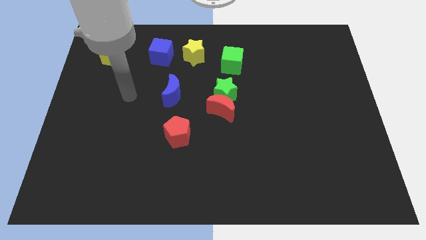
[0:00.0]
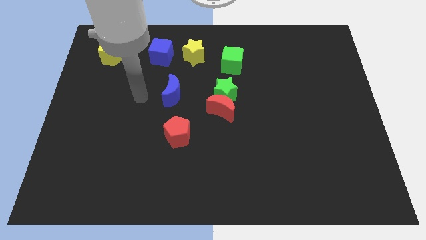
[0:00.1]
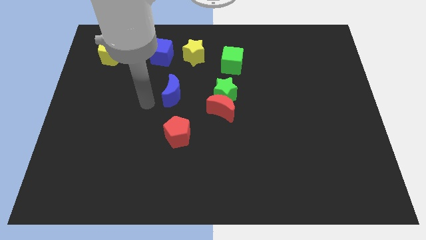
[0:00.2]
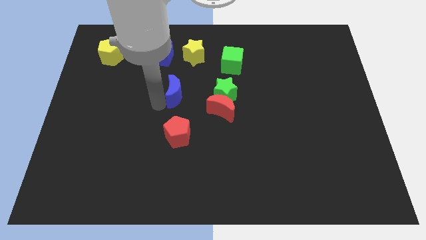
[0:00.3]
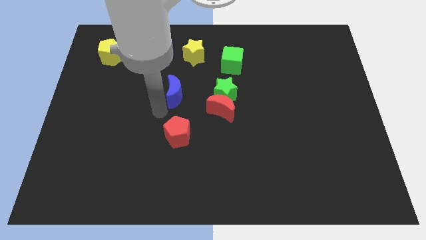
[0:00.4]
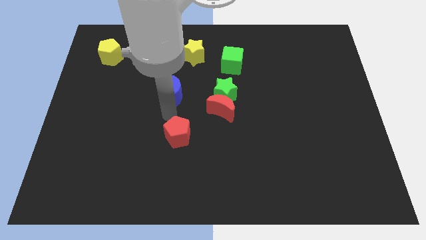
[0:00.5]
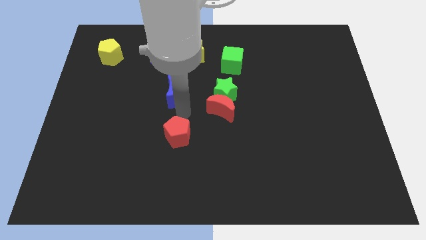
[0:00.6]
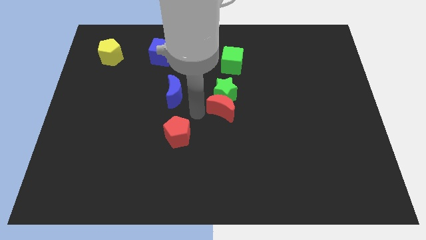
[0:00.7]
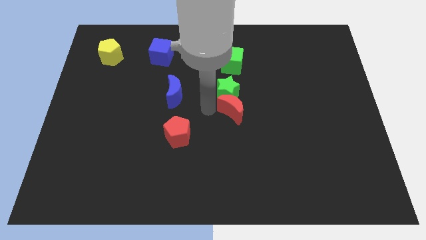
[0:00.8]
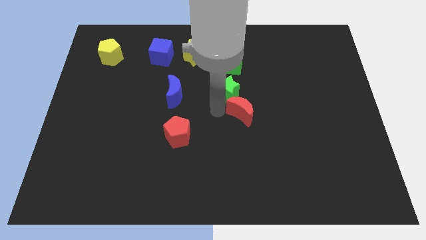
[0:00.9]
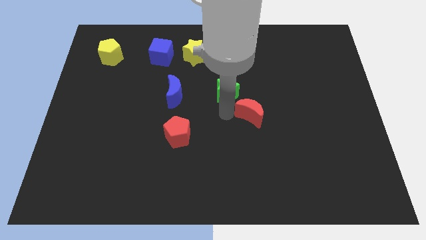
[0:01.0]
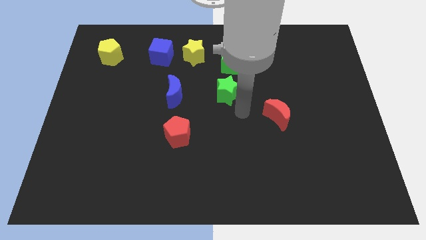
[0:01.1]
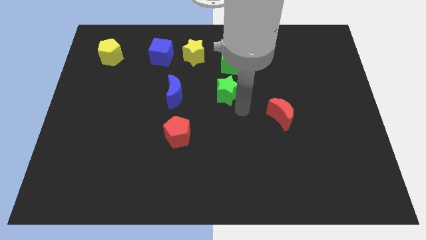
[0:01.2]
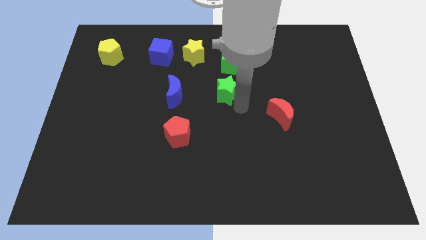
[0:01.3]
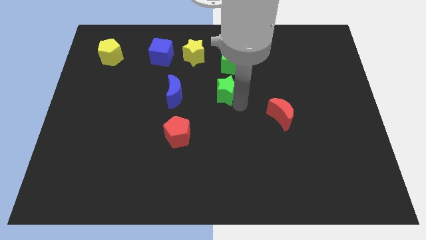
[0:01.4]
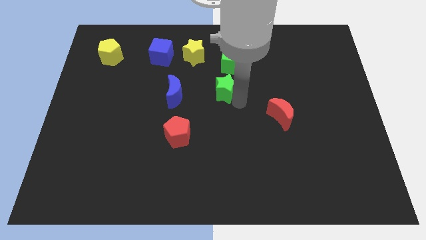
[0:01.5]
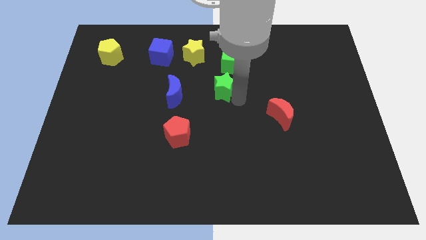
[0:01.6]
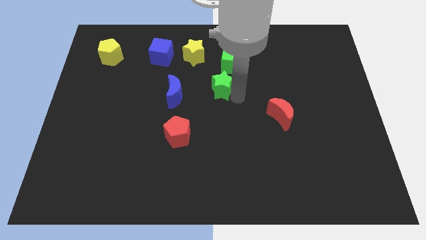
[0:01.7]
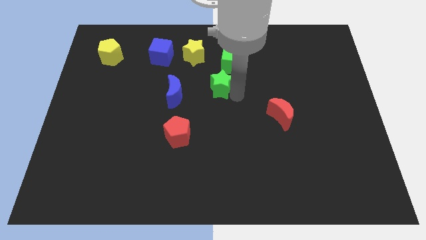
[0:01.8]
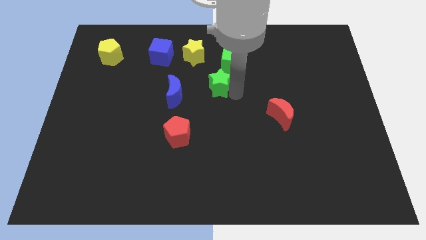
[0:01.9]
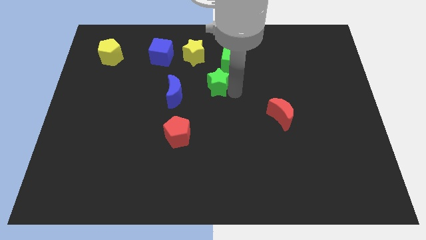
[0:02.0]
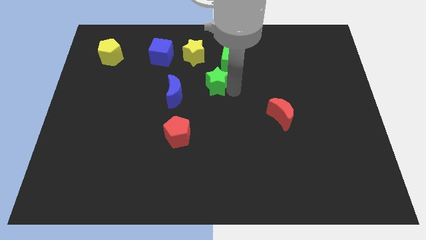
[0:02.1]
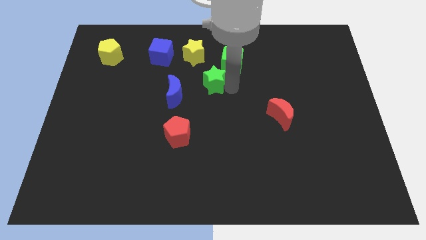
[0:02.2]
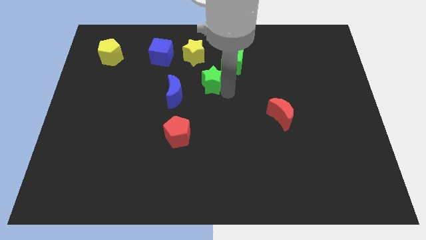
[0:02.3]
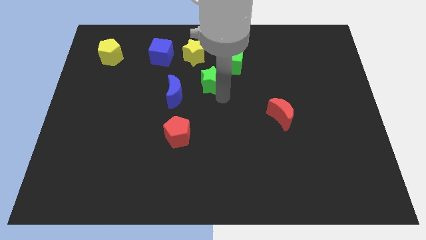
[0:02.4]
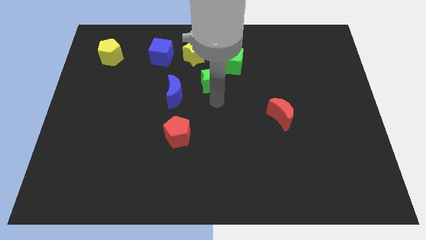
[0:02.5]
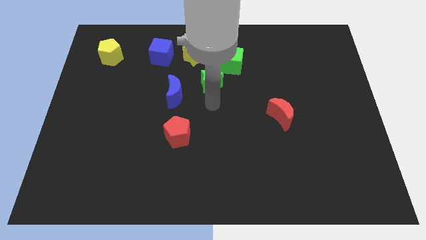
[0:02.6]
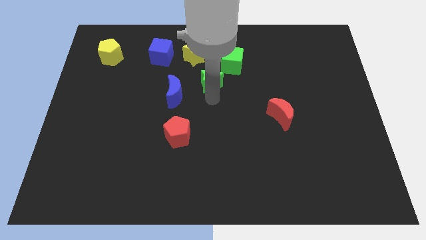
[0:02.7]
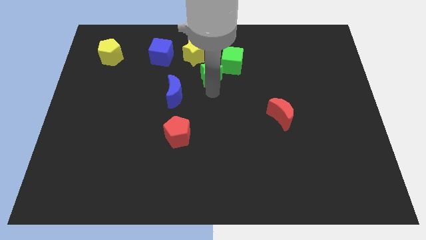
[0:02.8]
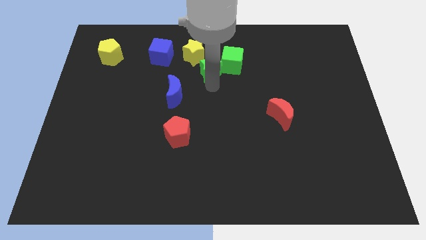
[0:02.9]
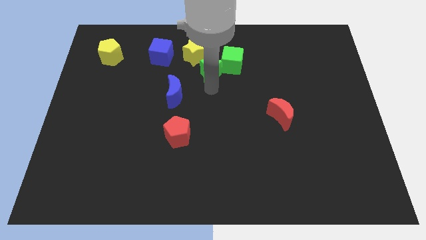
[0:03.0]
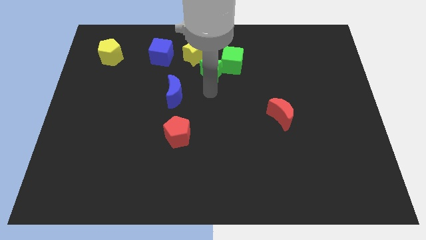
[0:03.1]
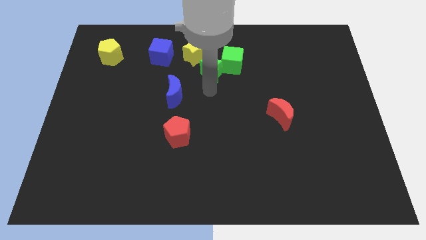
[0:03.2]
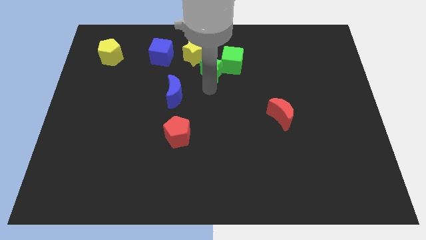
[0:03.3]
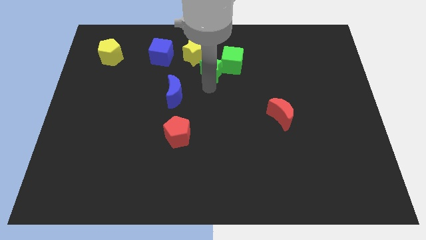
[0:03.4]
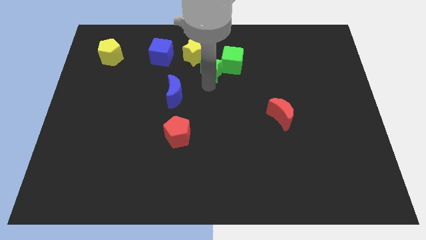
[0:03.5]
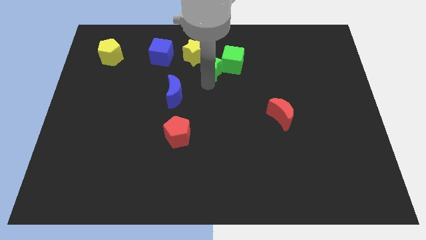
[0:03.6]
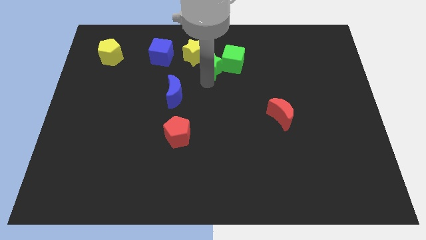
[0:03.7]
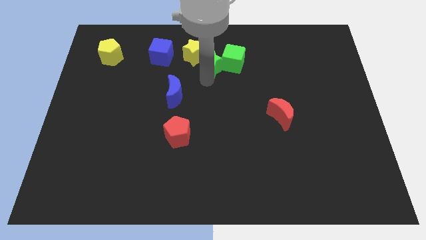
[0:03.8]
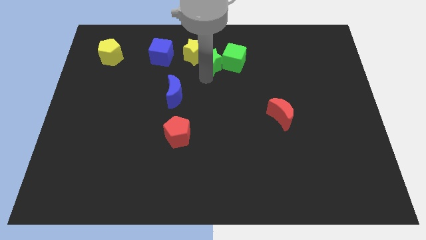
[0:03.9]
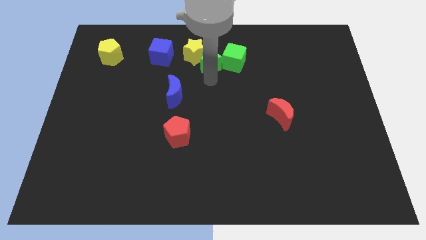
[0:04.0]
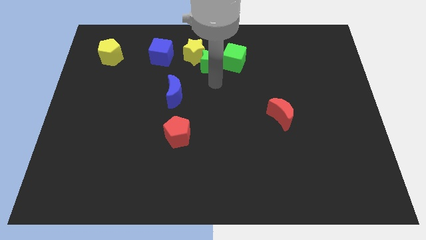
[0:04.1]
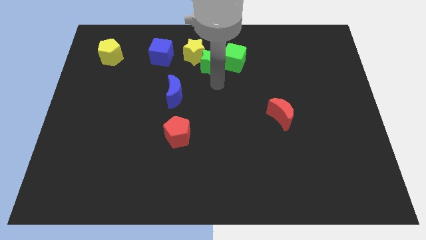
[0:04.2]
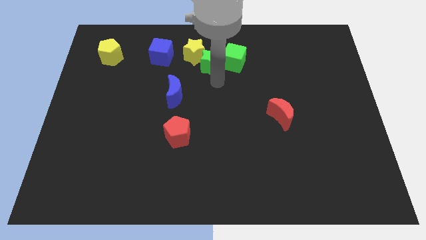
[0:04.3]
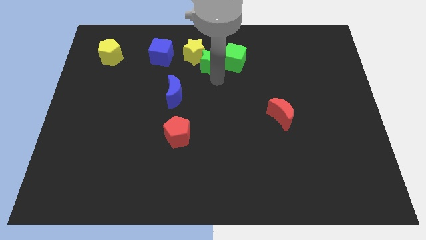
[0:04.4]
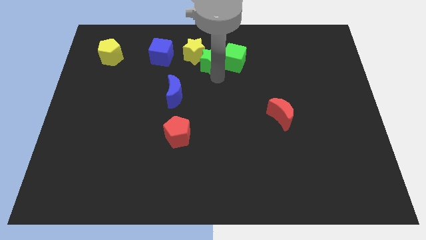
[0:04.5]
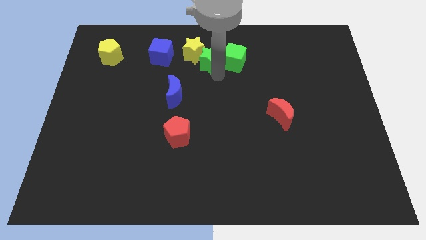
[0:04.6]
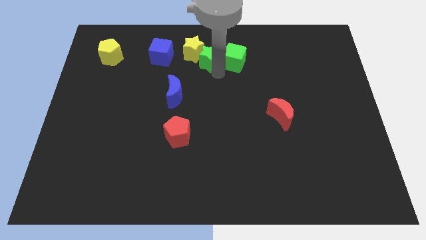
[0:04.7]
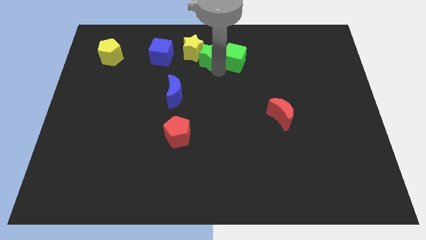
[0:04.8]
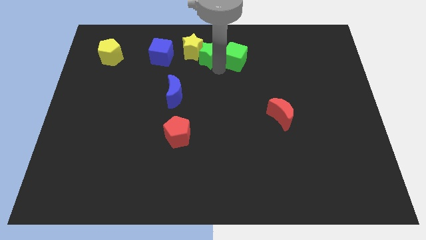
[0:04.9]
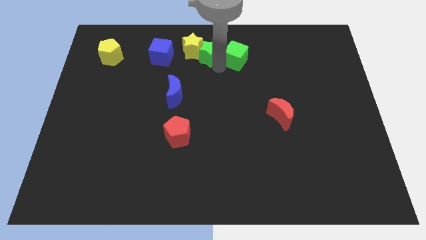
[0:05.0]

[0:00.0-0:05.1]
put the green star to the top side

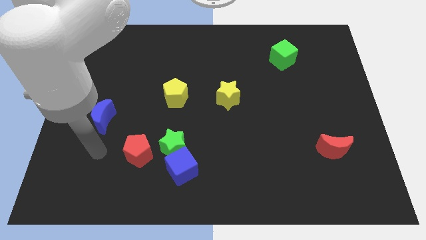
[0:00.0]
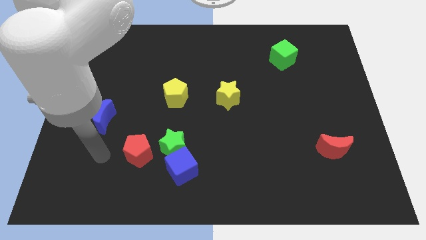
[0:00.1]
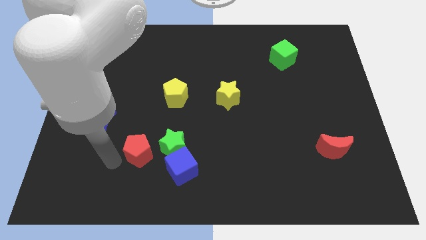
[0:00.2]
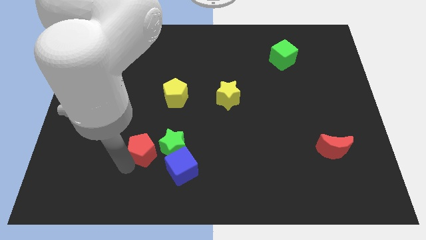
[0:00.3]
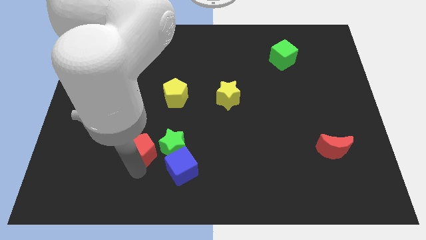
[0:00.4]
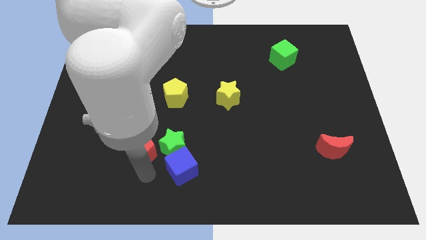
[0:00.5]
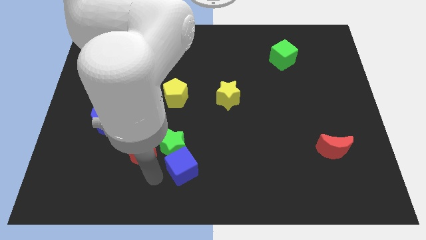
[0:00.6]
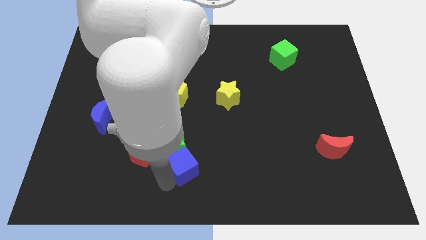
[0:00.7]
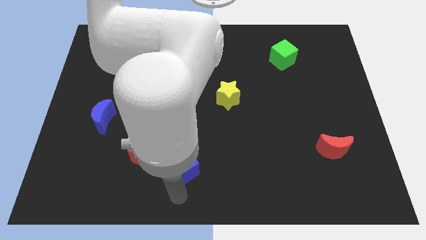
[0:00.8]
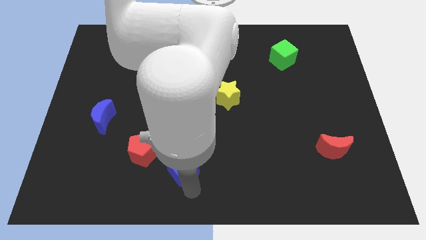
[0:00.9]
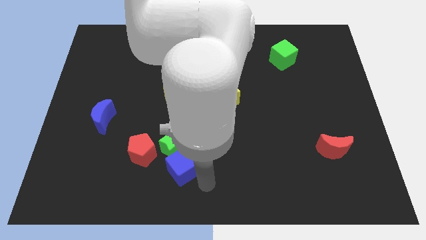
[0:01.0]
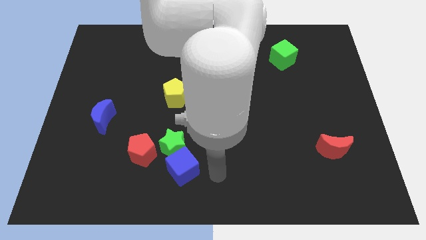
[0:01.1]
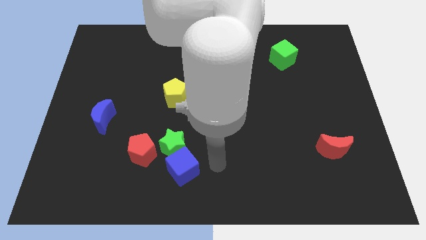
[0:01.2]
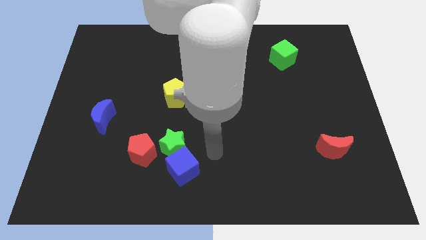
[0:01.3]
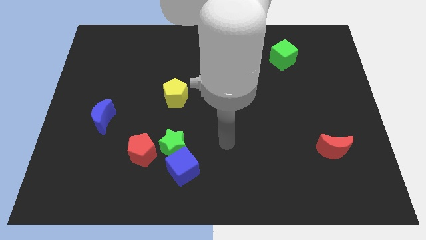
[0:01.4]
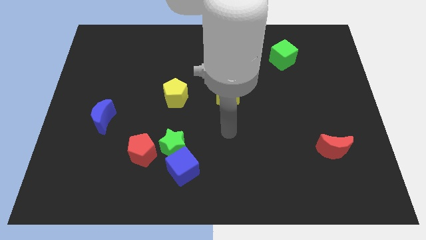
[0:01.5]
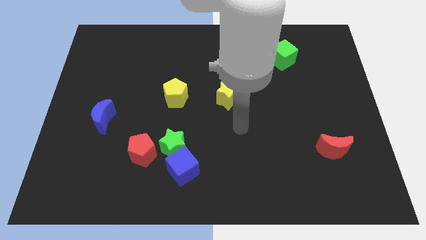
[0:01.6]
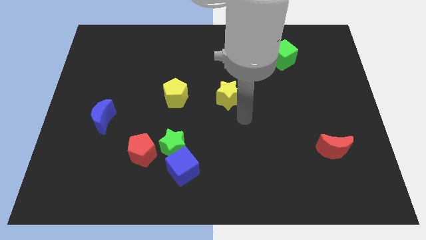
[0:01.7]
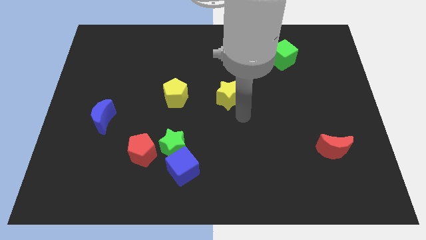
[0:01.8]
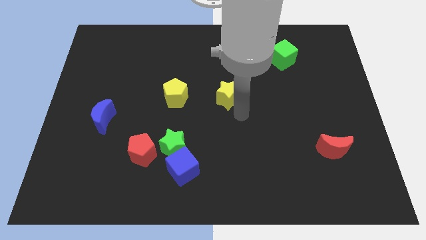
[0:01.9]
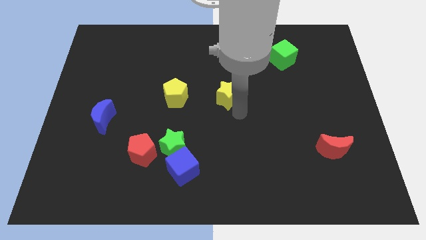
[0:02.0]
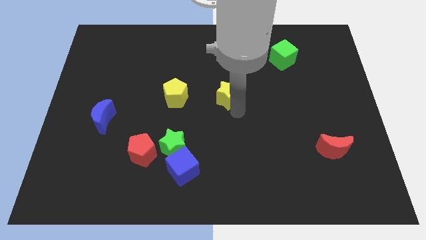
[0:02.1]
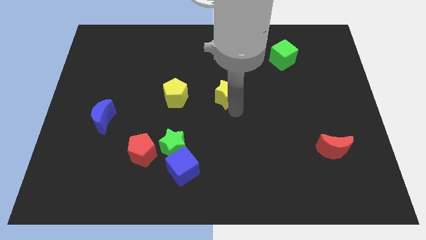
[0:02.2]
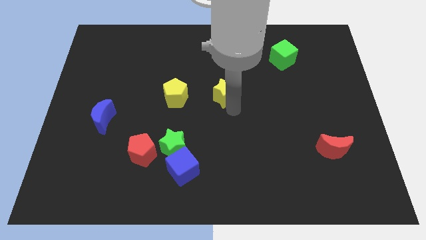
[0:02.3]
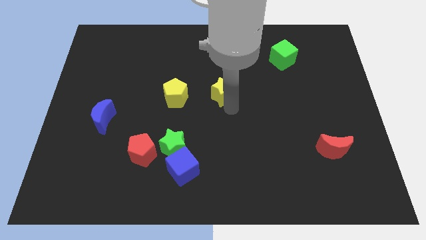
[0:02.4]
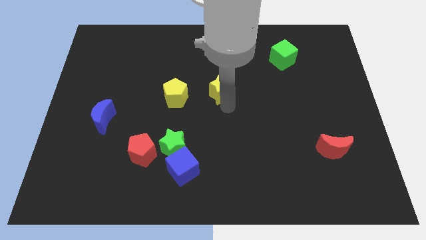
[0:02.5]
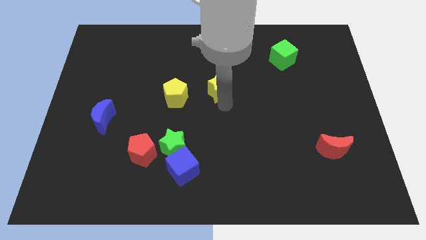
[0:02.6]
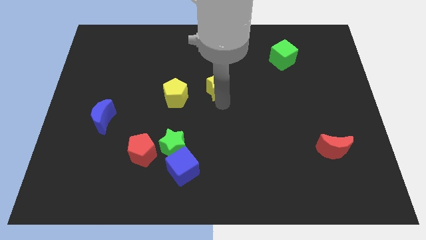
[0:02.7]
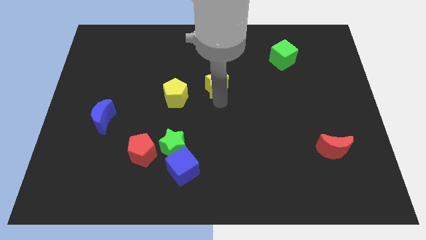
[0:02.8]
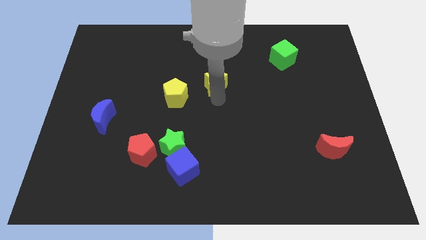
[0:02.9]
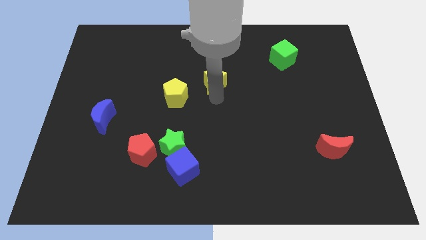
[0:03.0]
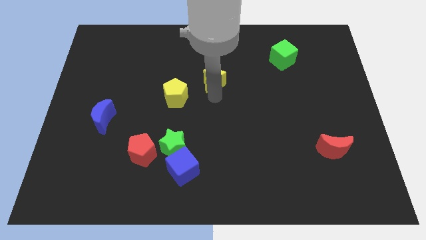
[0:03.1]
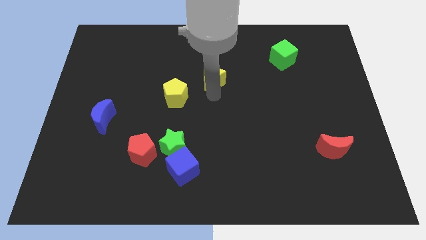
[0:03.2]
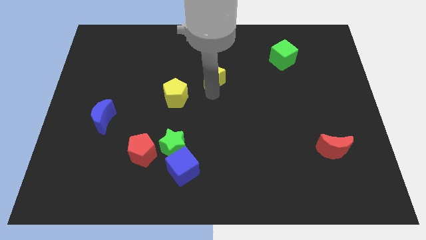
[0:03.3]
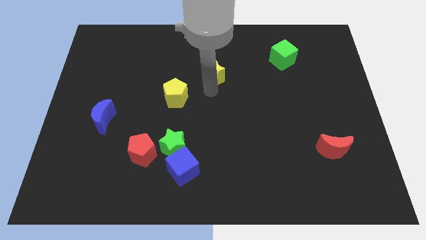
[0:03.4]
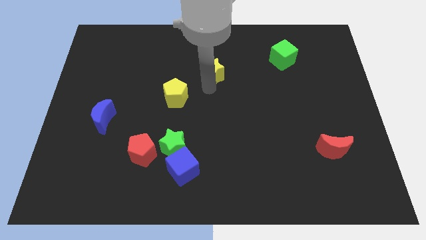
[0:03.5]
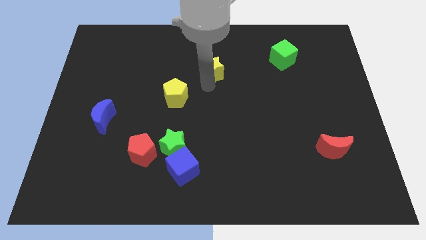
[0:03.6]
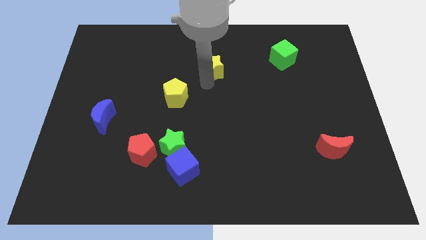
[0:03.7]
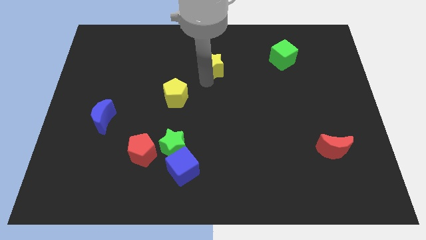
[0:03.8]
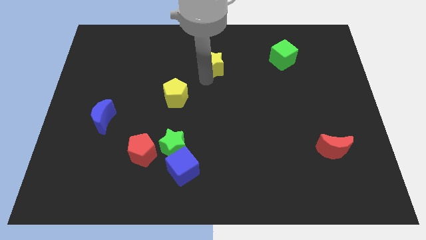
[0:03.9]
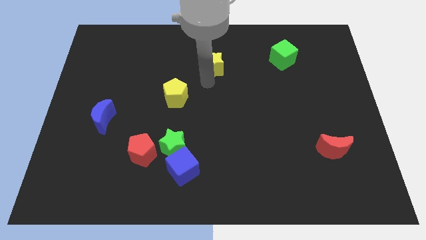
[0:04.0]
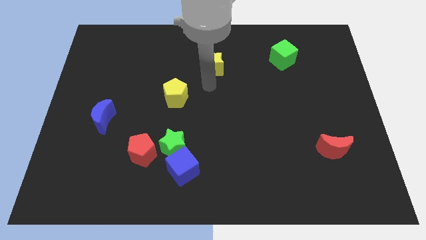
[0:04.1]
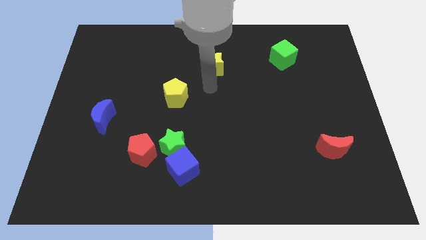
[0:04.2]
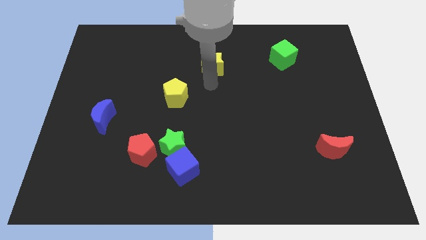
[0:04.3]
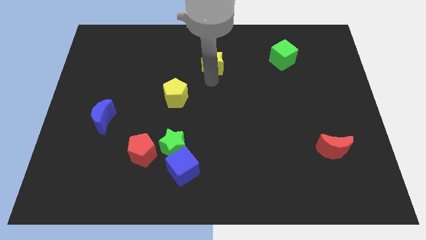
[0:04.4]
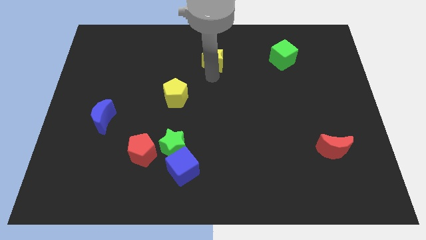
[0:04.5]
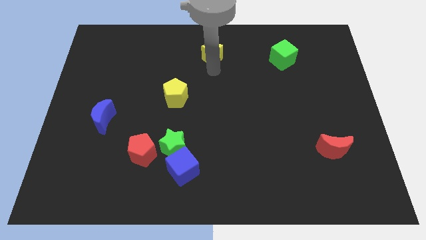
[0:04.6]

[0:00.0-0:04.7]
move the yellow star to the top side
